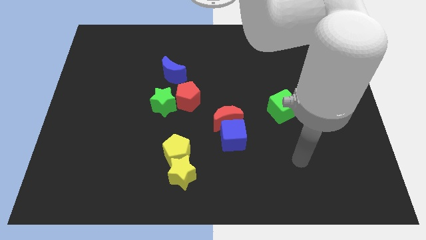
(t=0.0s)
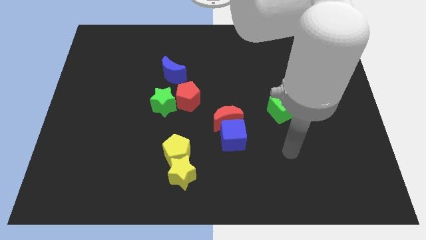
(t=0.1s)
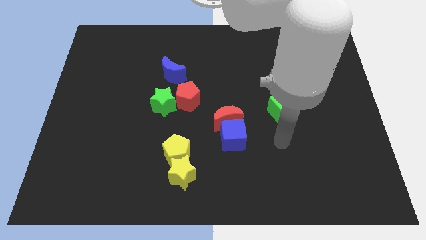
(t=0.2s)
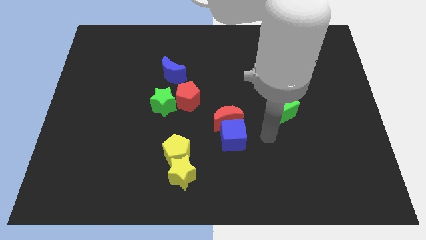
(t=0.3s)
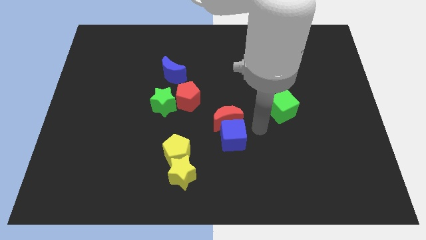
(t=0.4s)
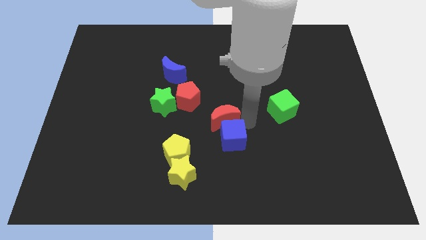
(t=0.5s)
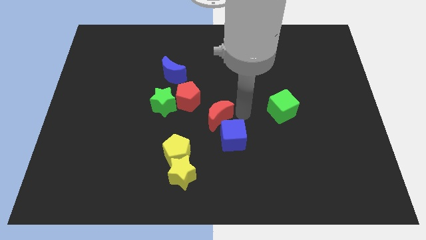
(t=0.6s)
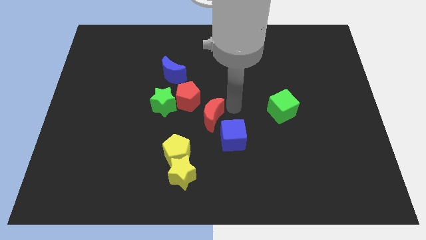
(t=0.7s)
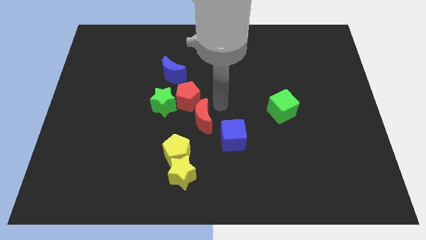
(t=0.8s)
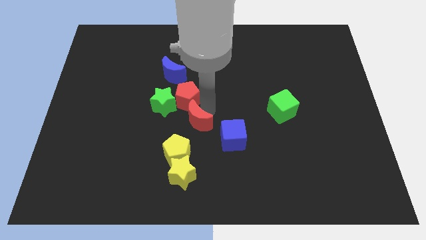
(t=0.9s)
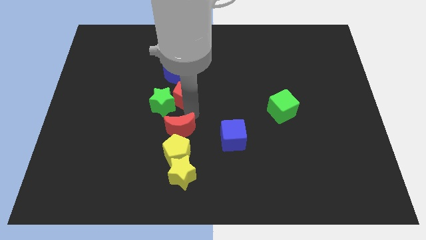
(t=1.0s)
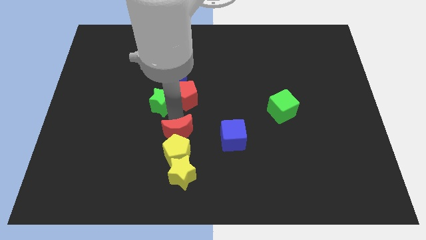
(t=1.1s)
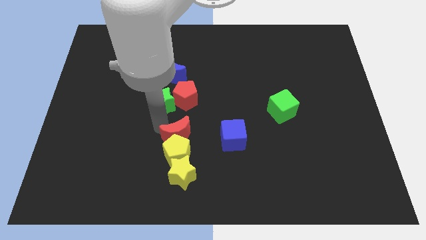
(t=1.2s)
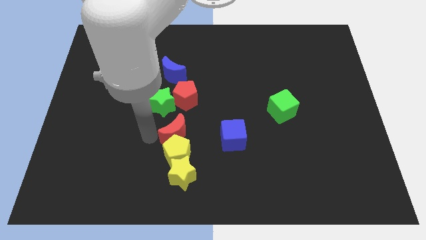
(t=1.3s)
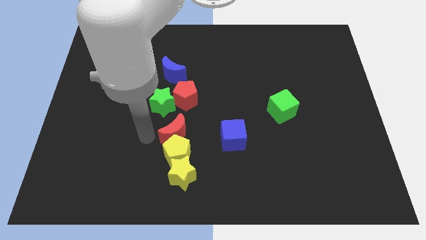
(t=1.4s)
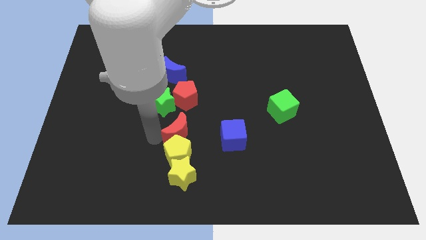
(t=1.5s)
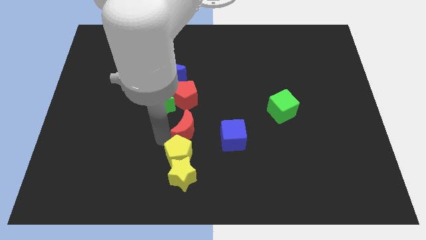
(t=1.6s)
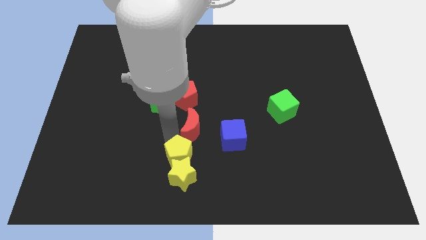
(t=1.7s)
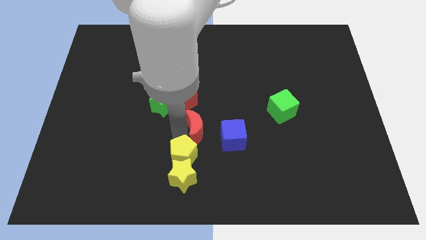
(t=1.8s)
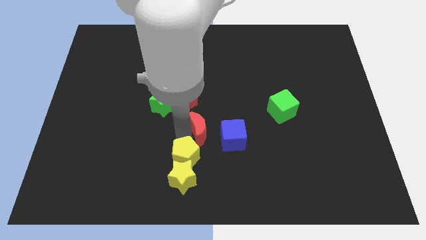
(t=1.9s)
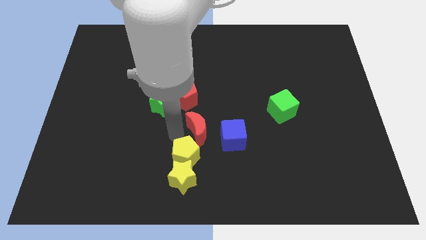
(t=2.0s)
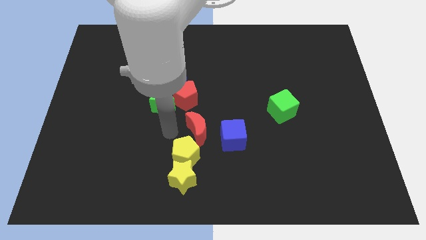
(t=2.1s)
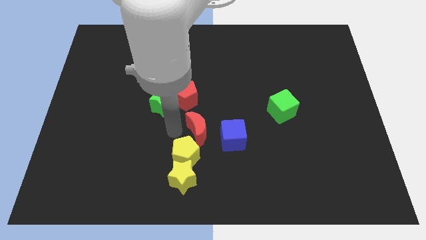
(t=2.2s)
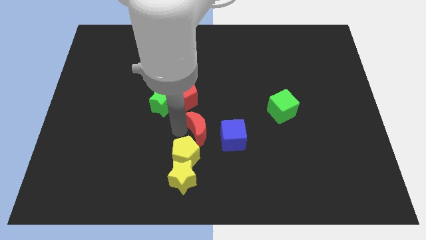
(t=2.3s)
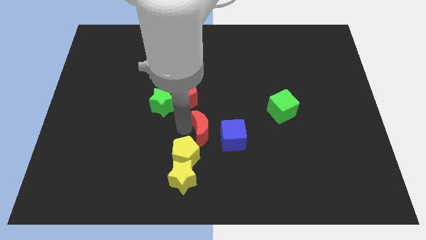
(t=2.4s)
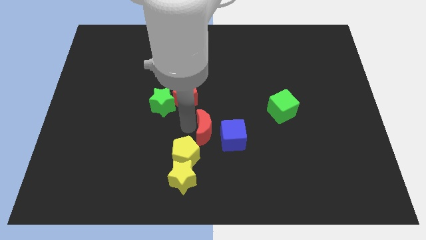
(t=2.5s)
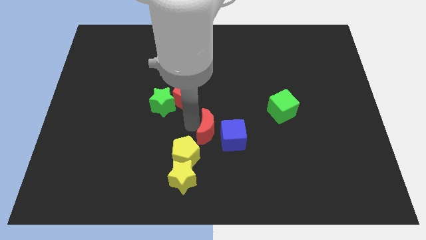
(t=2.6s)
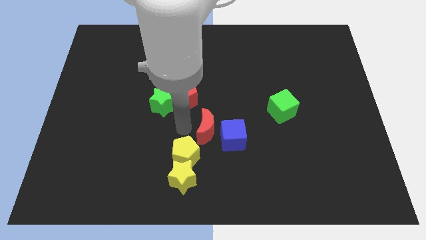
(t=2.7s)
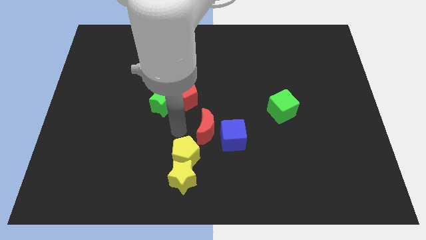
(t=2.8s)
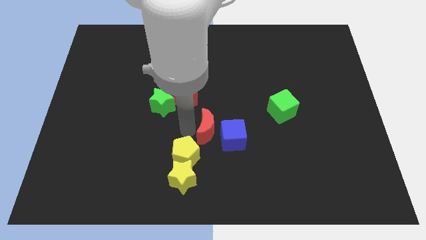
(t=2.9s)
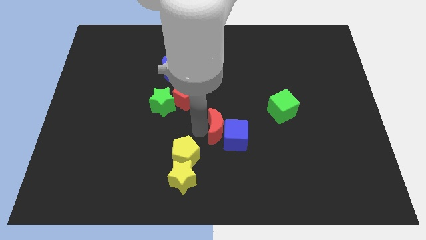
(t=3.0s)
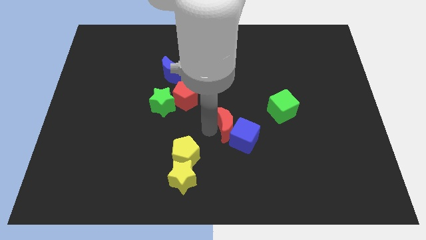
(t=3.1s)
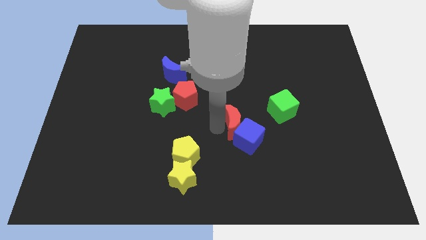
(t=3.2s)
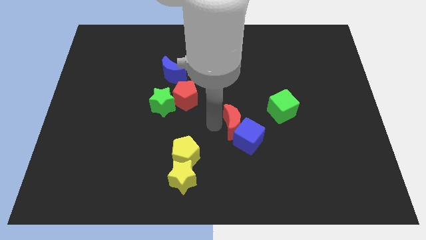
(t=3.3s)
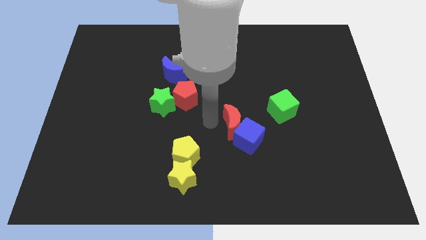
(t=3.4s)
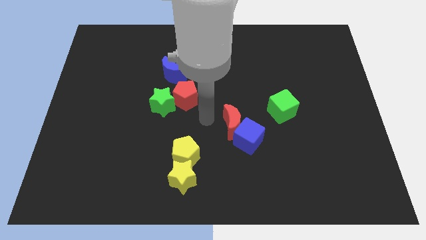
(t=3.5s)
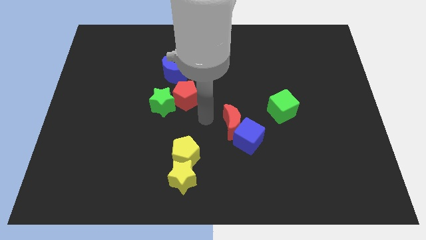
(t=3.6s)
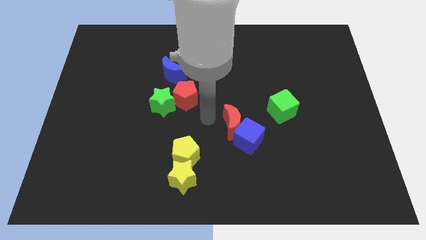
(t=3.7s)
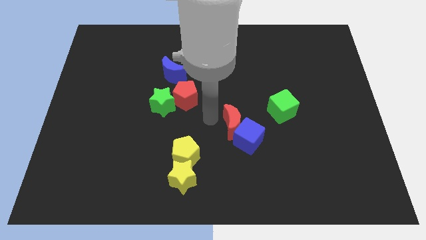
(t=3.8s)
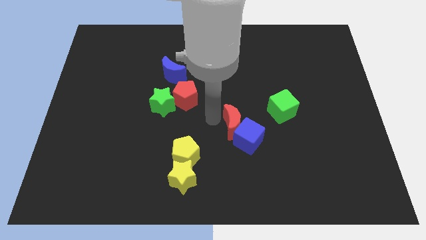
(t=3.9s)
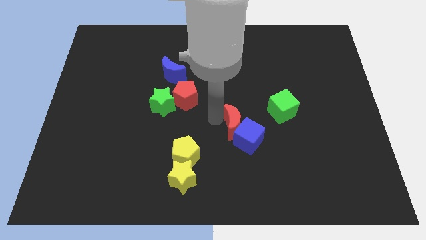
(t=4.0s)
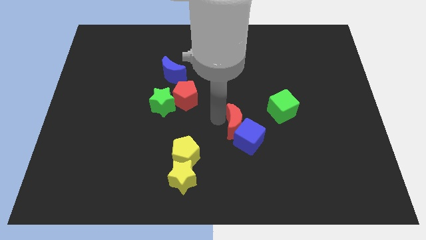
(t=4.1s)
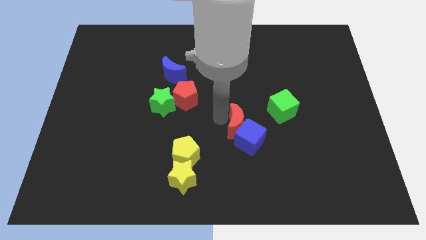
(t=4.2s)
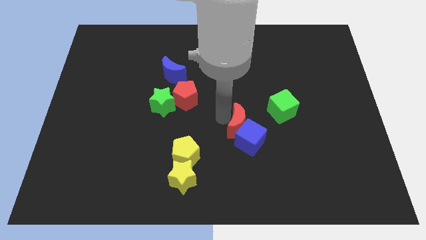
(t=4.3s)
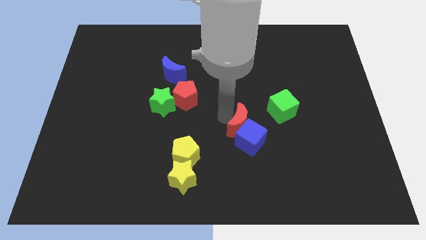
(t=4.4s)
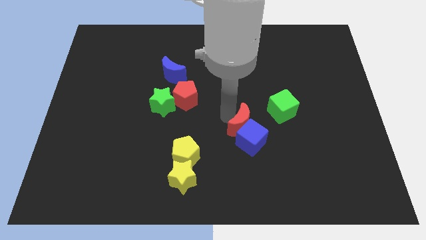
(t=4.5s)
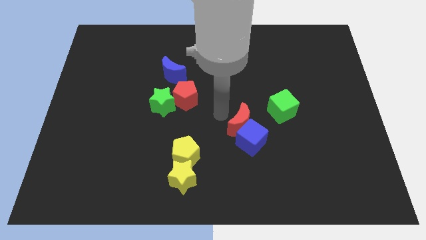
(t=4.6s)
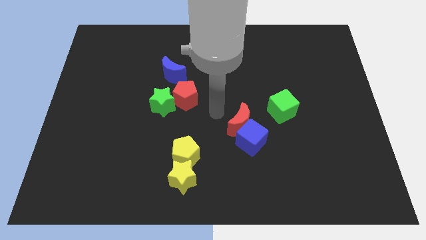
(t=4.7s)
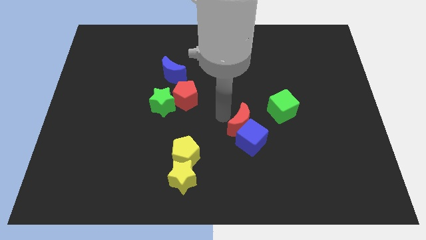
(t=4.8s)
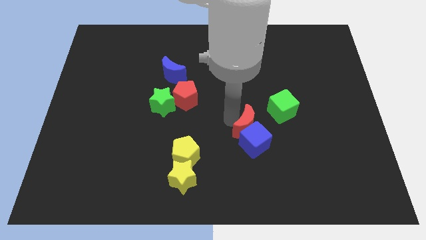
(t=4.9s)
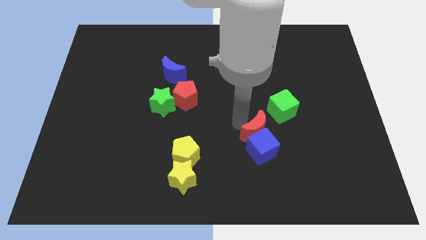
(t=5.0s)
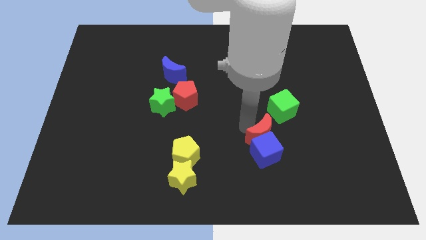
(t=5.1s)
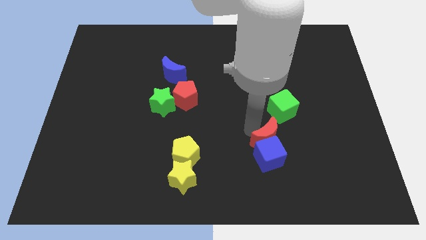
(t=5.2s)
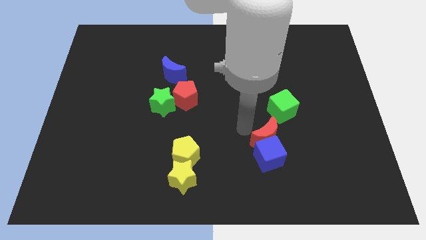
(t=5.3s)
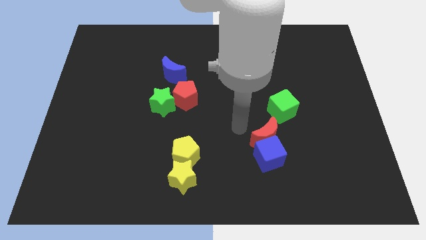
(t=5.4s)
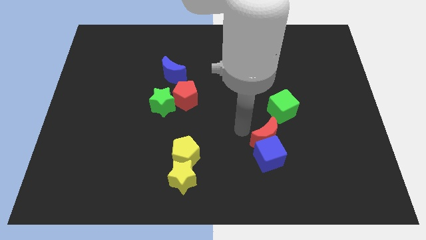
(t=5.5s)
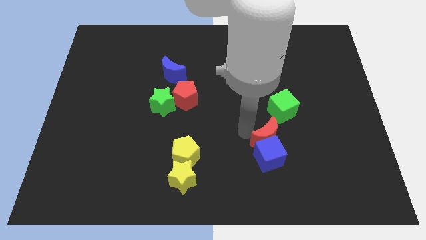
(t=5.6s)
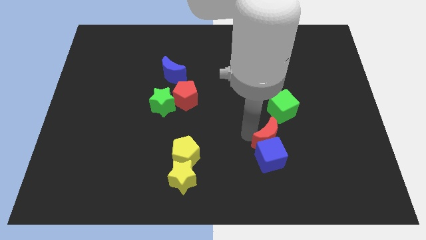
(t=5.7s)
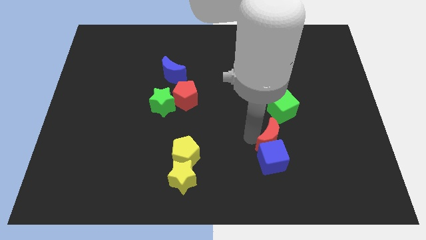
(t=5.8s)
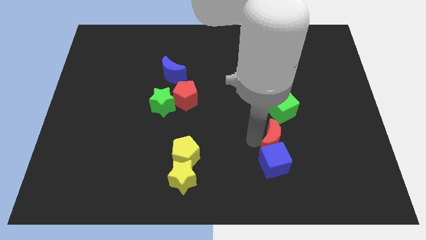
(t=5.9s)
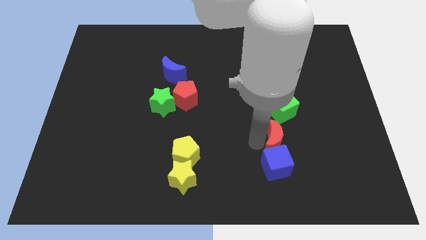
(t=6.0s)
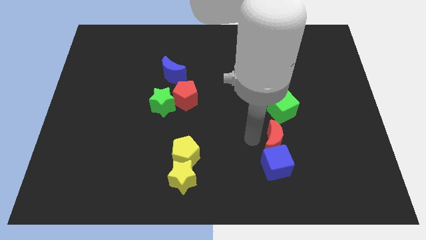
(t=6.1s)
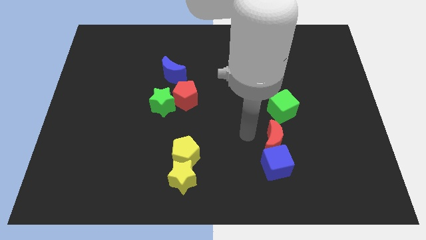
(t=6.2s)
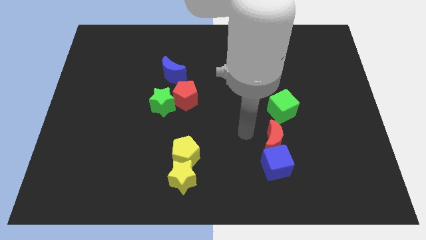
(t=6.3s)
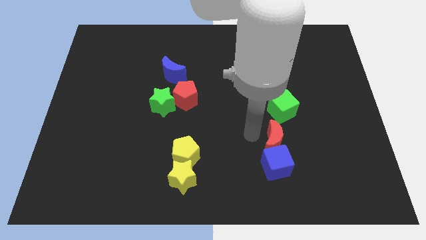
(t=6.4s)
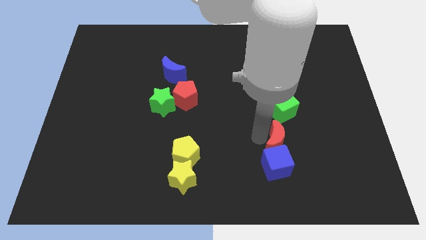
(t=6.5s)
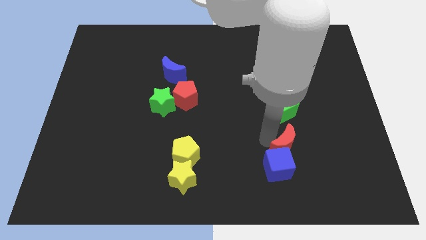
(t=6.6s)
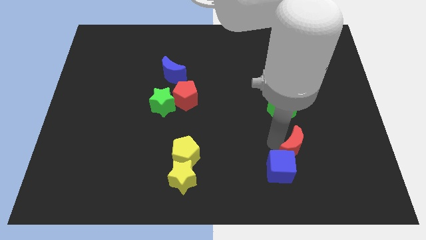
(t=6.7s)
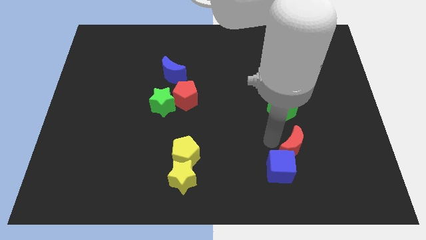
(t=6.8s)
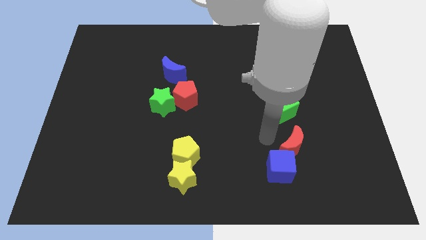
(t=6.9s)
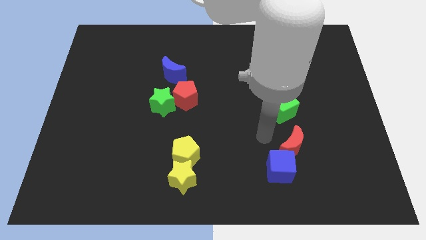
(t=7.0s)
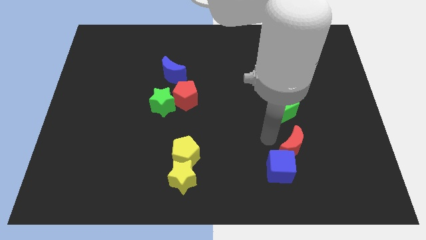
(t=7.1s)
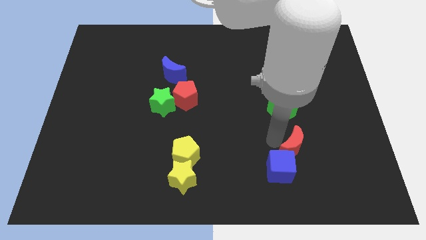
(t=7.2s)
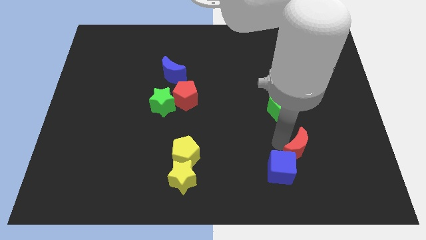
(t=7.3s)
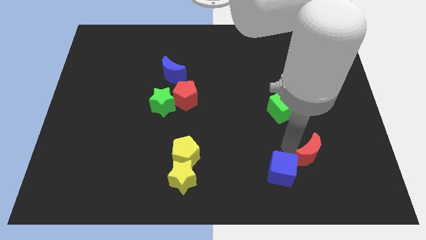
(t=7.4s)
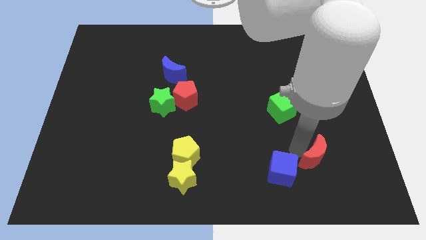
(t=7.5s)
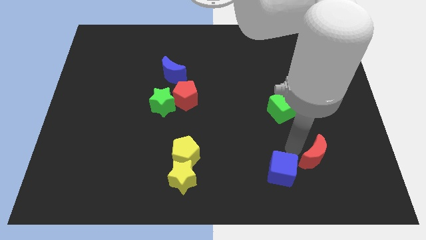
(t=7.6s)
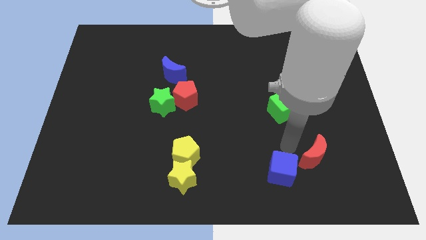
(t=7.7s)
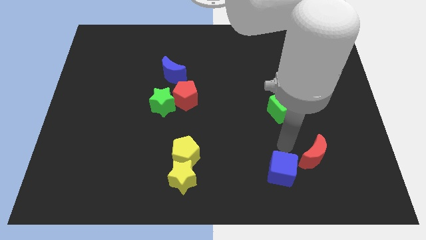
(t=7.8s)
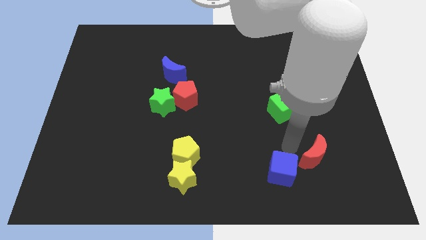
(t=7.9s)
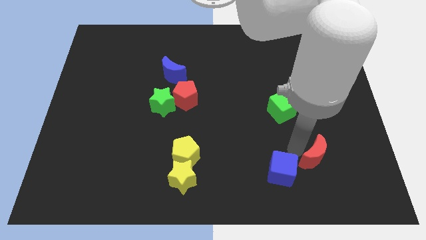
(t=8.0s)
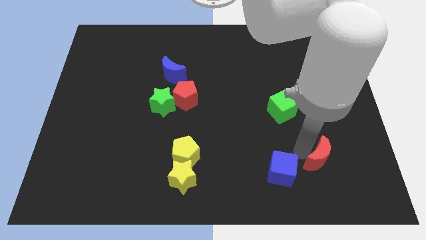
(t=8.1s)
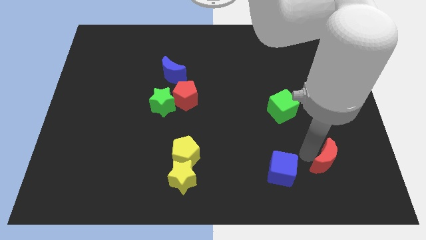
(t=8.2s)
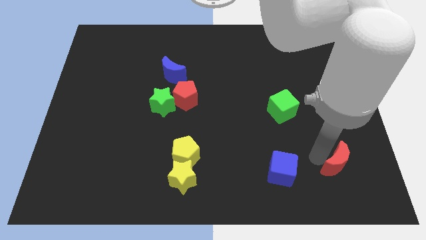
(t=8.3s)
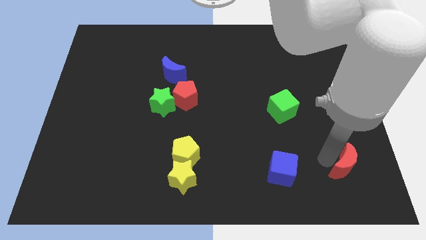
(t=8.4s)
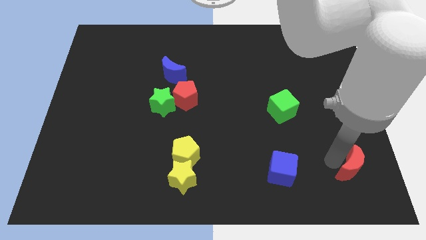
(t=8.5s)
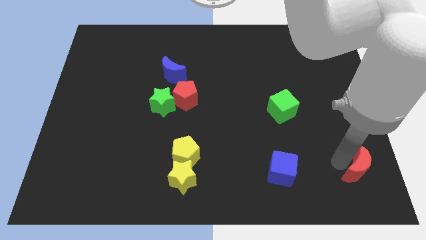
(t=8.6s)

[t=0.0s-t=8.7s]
put the red moon to the bottom right
